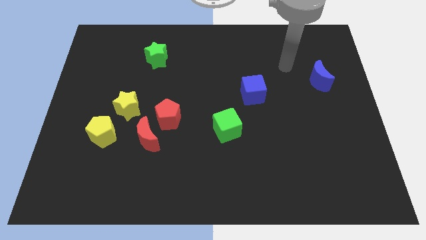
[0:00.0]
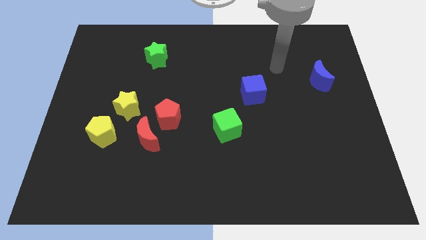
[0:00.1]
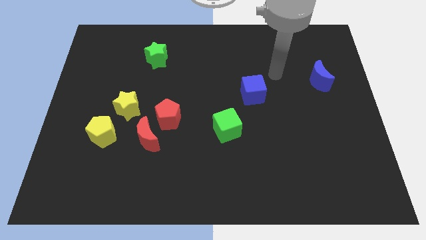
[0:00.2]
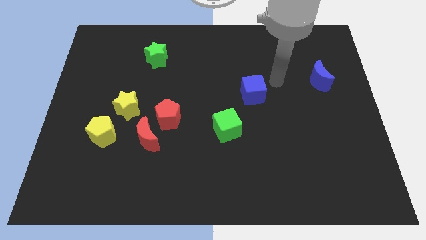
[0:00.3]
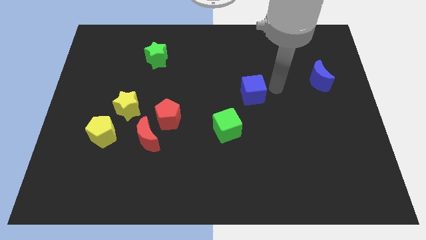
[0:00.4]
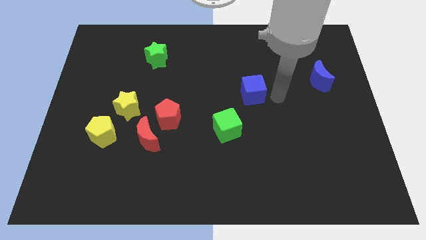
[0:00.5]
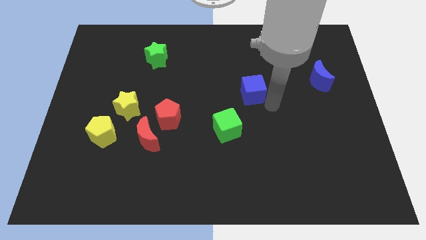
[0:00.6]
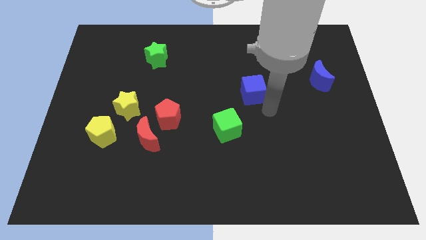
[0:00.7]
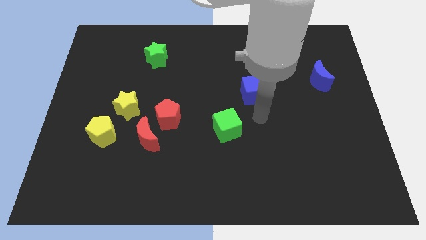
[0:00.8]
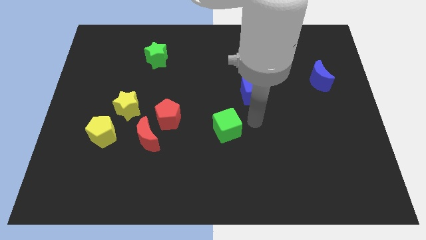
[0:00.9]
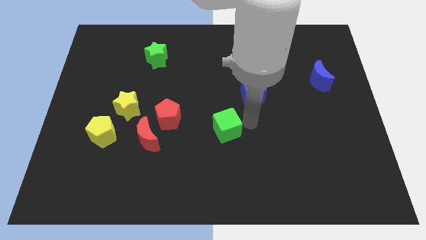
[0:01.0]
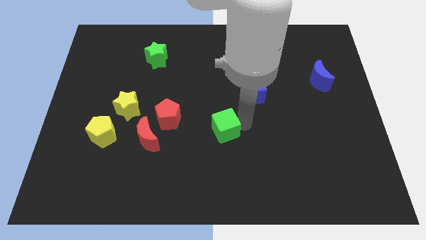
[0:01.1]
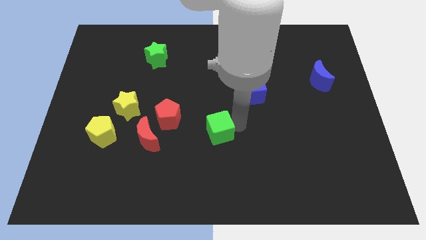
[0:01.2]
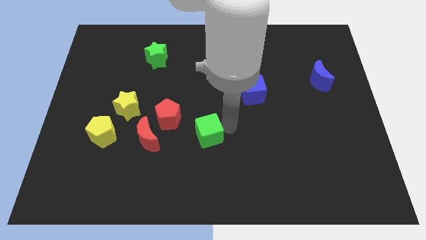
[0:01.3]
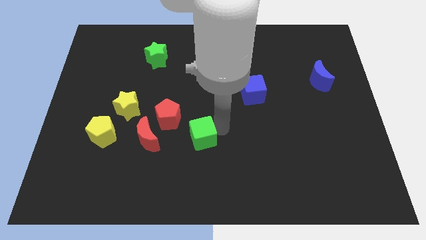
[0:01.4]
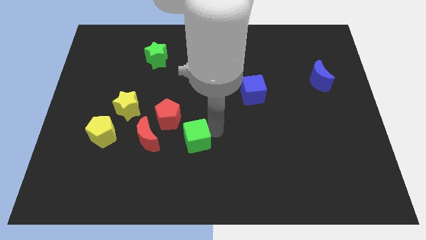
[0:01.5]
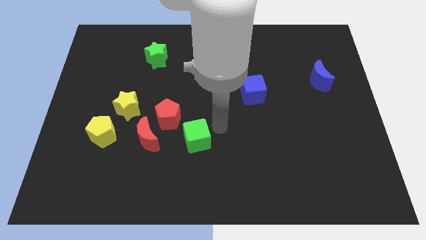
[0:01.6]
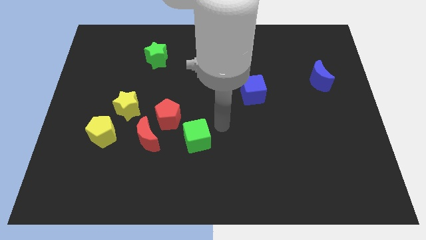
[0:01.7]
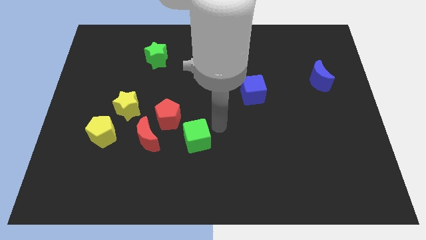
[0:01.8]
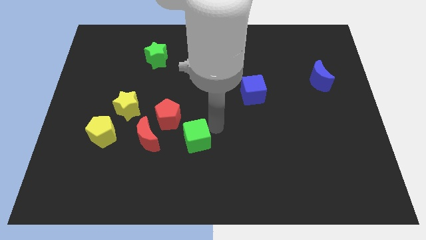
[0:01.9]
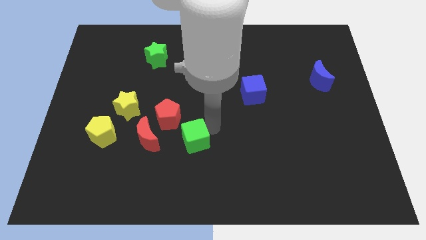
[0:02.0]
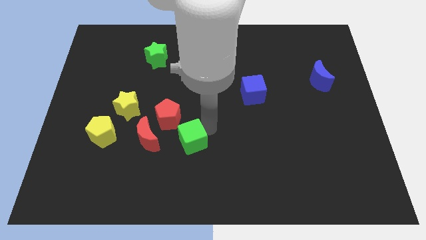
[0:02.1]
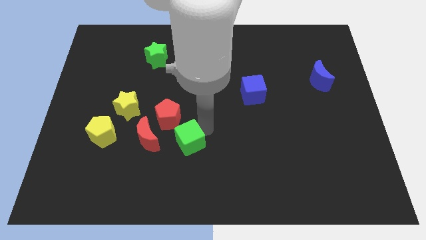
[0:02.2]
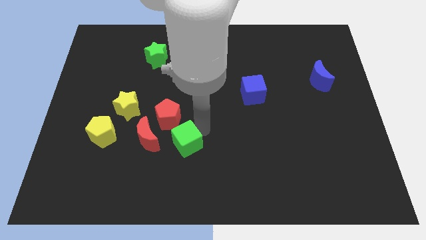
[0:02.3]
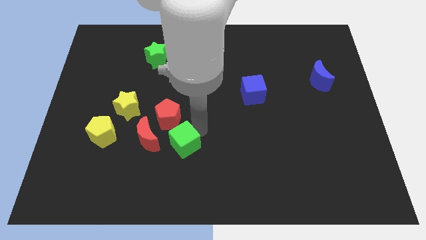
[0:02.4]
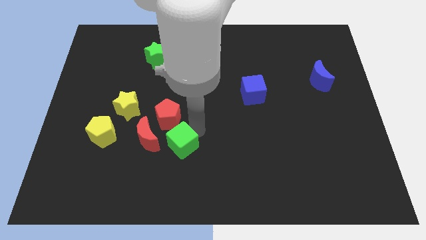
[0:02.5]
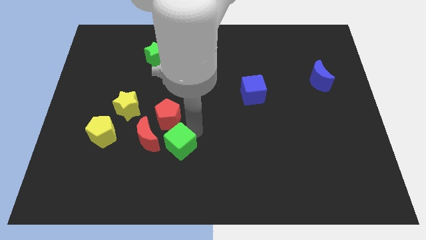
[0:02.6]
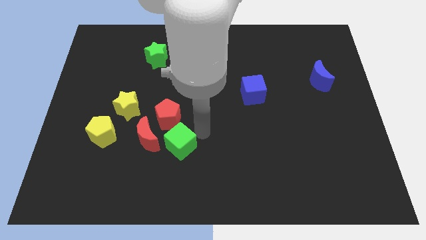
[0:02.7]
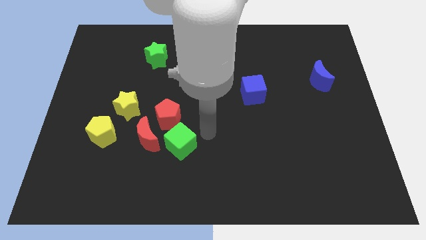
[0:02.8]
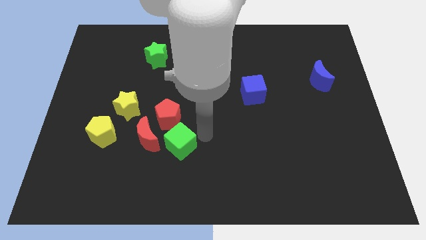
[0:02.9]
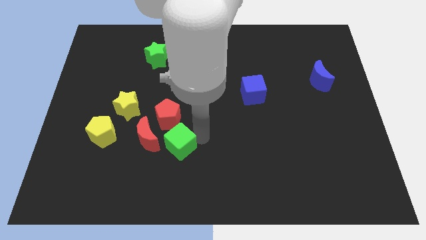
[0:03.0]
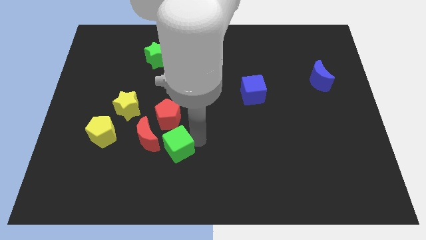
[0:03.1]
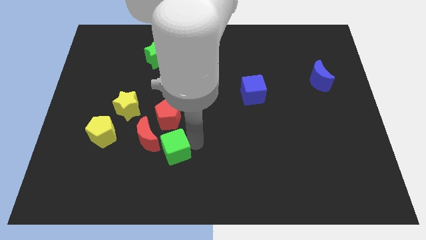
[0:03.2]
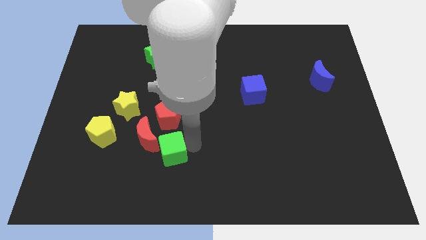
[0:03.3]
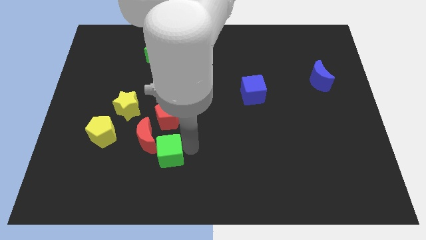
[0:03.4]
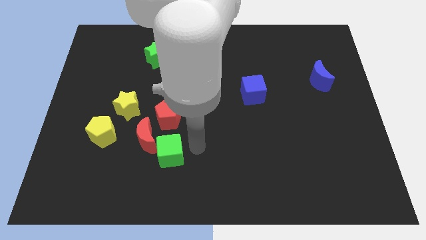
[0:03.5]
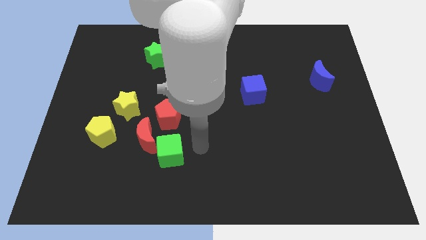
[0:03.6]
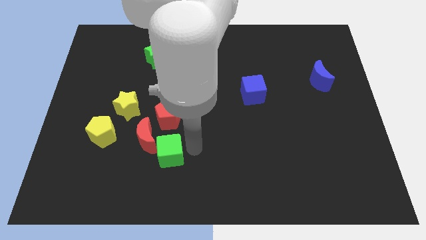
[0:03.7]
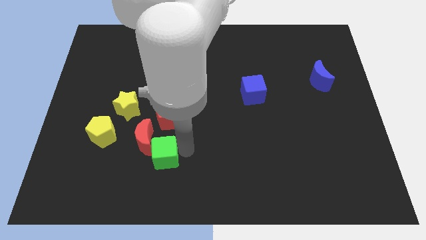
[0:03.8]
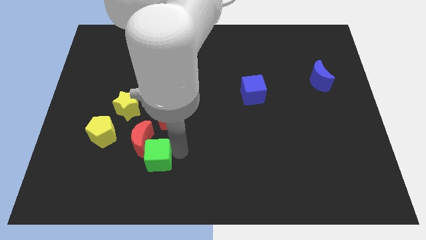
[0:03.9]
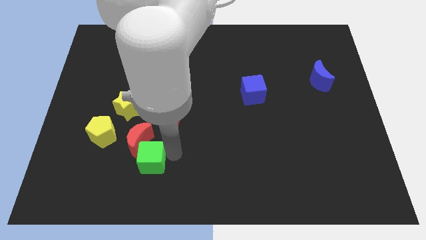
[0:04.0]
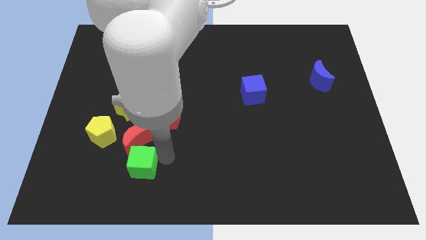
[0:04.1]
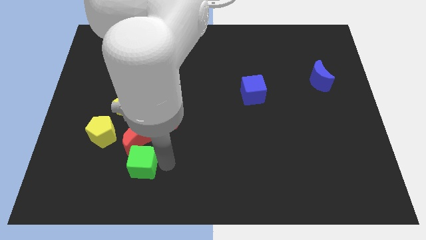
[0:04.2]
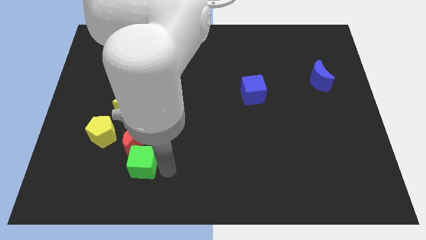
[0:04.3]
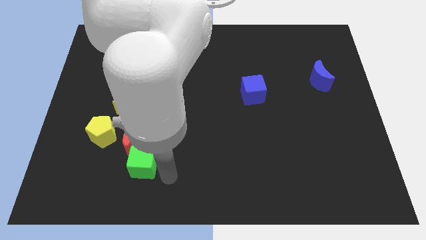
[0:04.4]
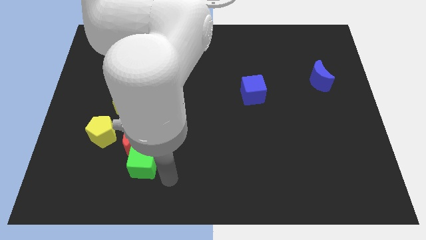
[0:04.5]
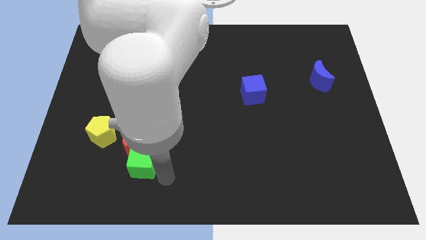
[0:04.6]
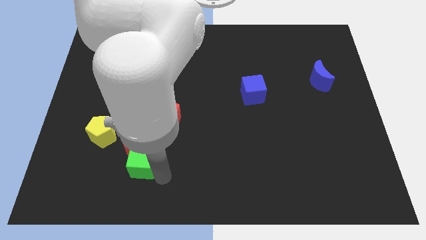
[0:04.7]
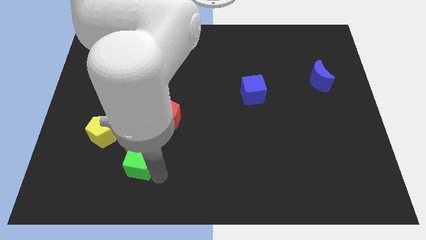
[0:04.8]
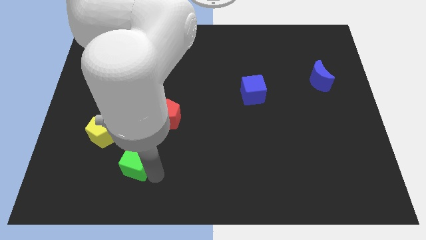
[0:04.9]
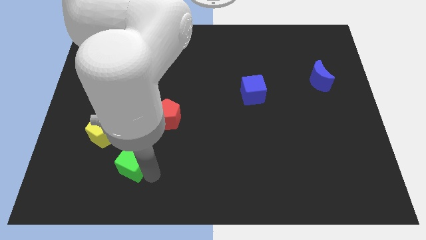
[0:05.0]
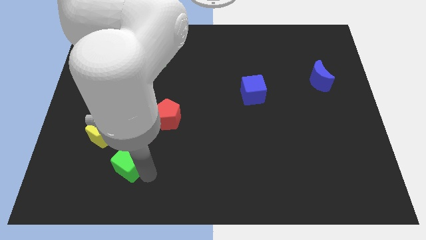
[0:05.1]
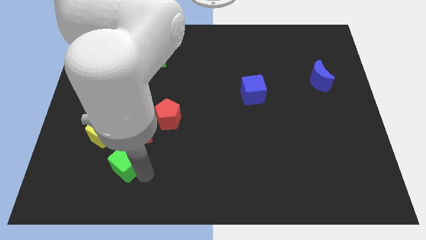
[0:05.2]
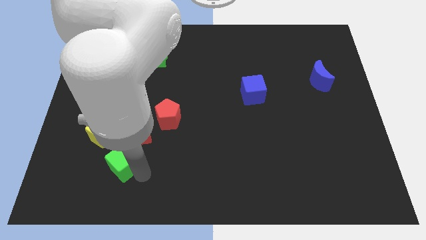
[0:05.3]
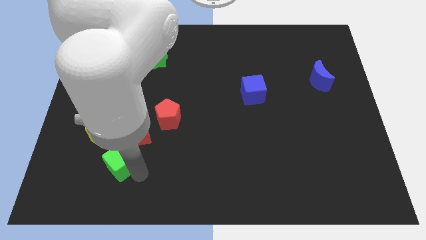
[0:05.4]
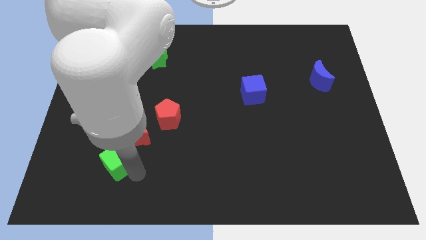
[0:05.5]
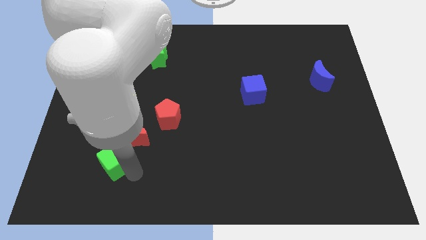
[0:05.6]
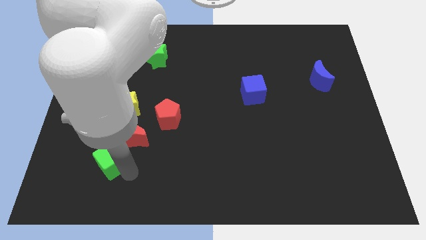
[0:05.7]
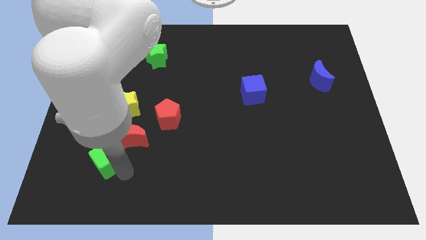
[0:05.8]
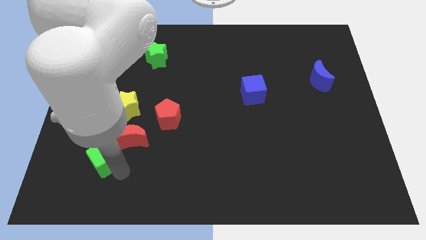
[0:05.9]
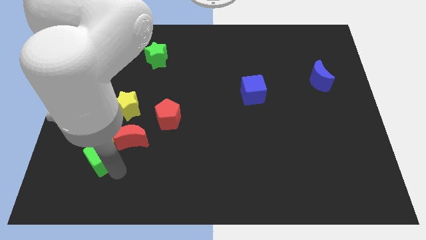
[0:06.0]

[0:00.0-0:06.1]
slide the green cube next to the yellow pentagon

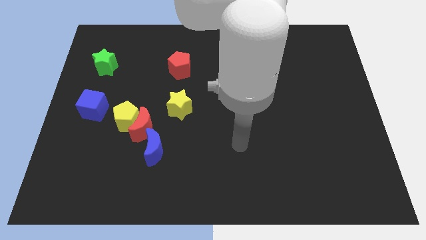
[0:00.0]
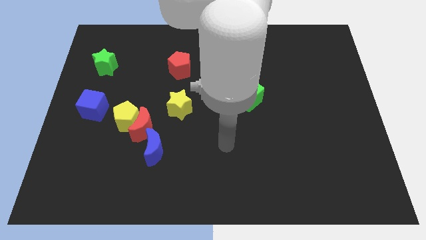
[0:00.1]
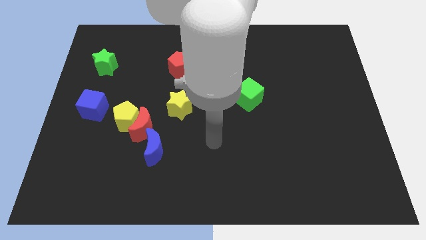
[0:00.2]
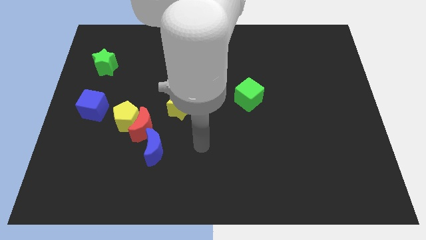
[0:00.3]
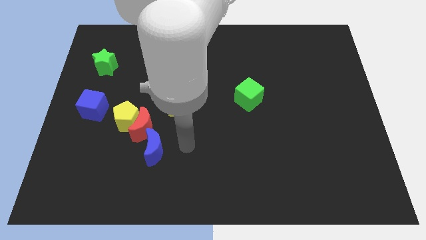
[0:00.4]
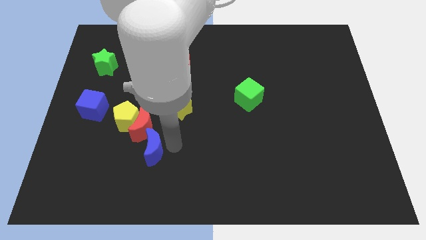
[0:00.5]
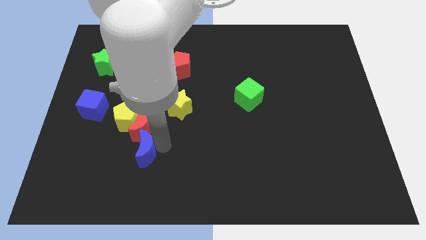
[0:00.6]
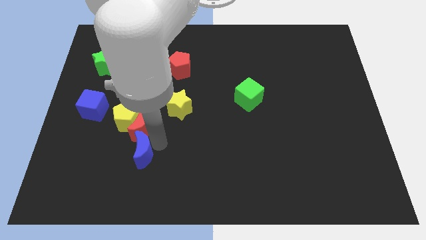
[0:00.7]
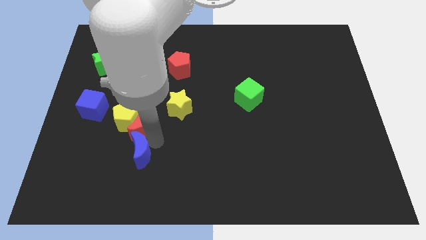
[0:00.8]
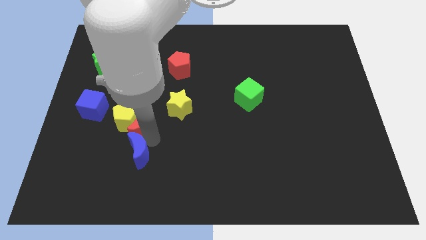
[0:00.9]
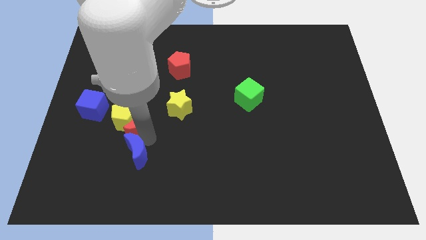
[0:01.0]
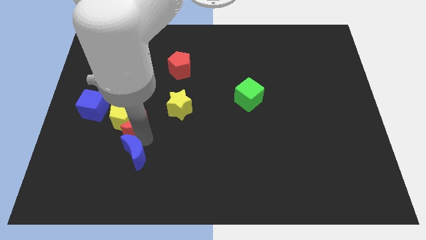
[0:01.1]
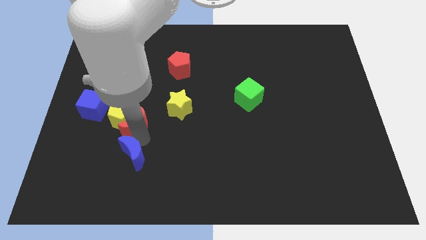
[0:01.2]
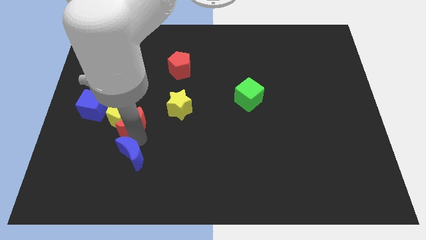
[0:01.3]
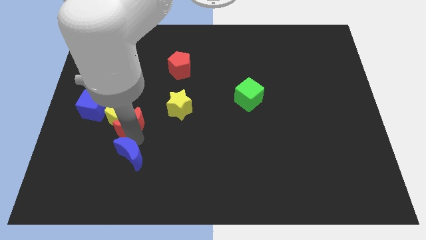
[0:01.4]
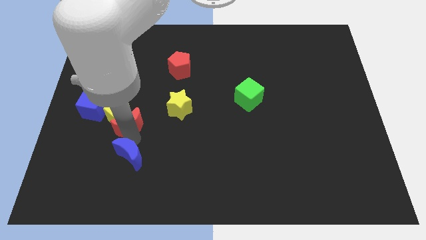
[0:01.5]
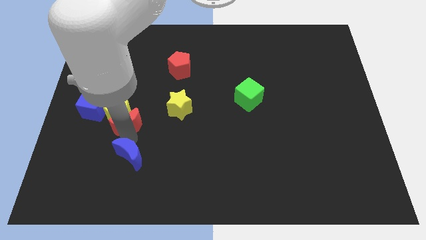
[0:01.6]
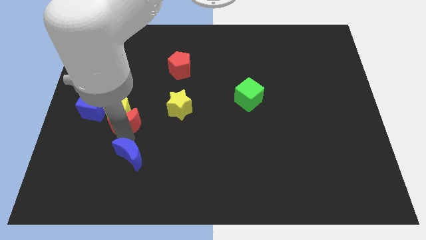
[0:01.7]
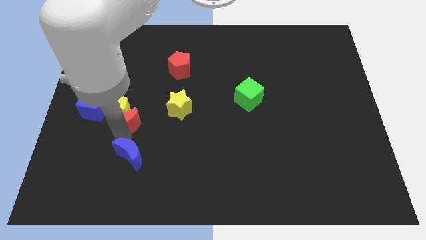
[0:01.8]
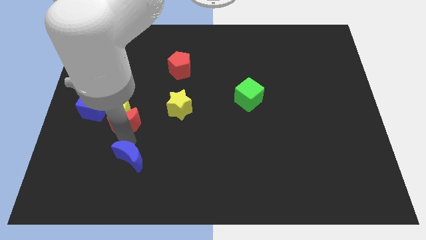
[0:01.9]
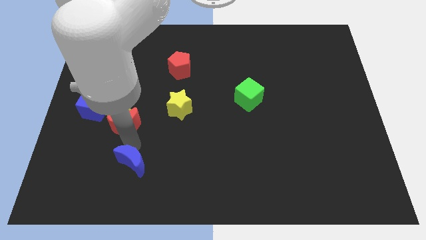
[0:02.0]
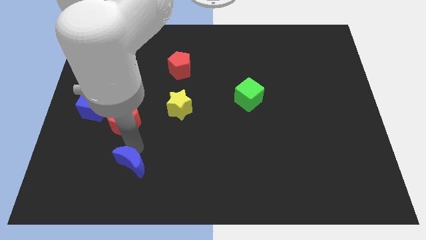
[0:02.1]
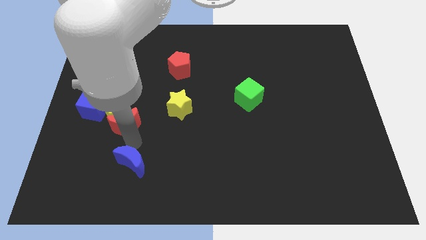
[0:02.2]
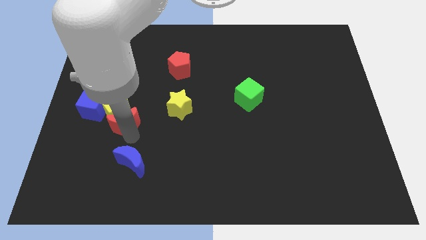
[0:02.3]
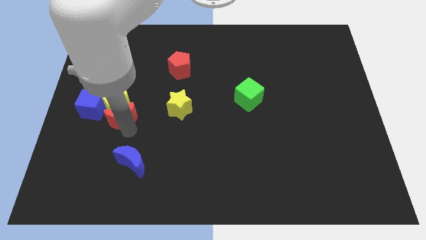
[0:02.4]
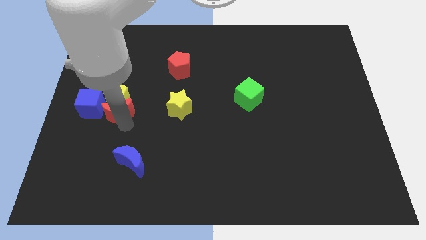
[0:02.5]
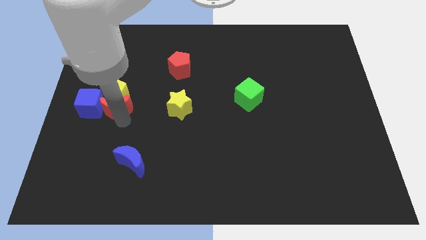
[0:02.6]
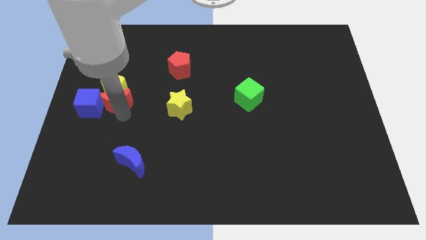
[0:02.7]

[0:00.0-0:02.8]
put the red moon next to the blue cube
